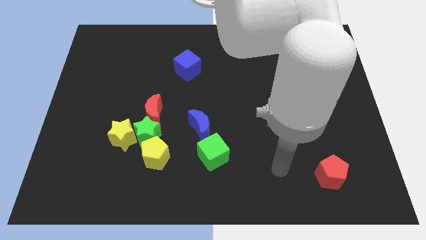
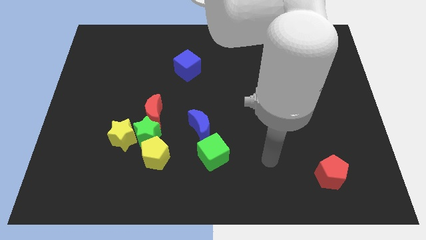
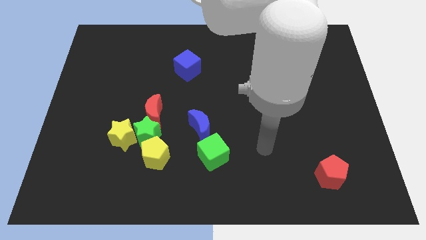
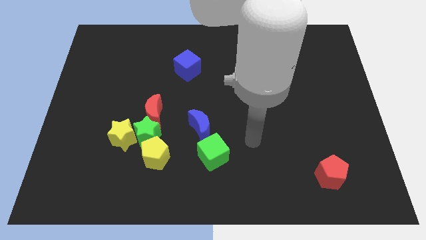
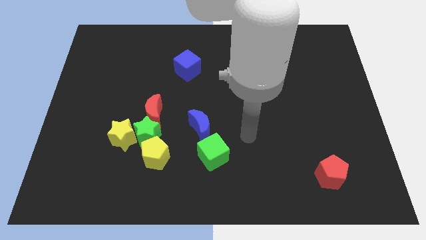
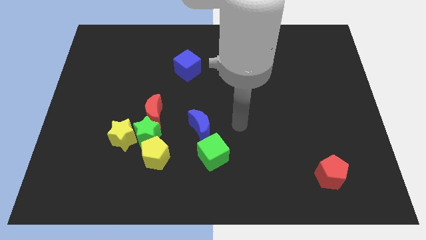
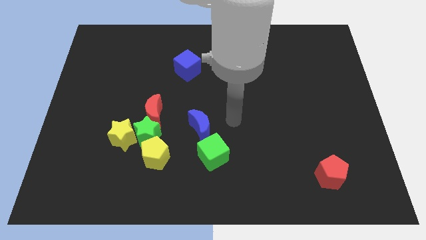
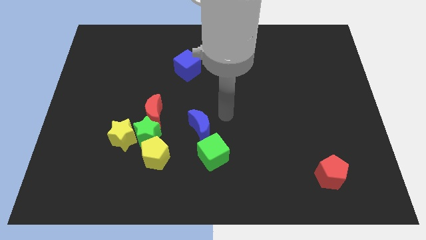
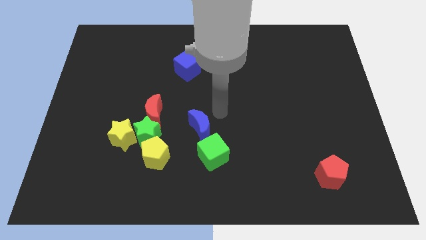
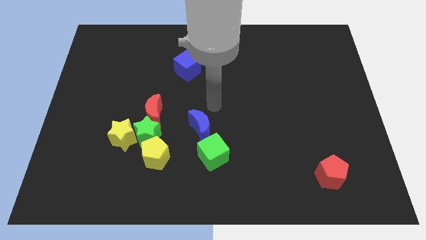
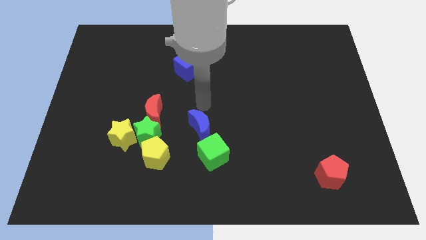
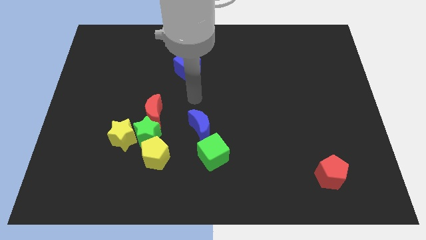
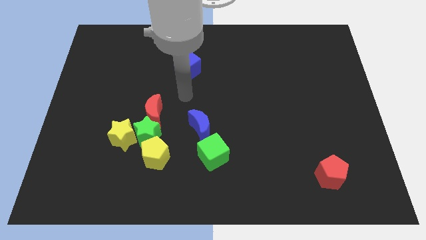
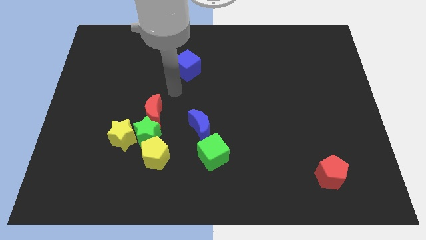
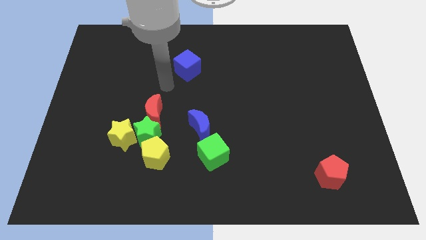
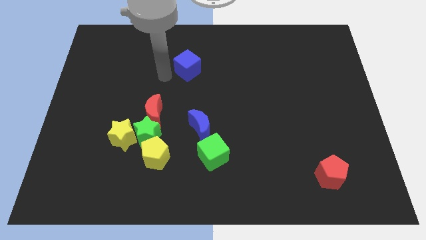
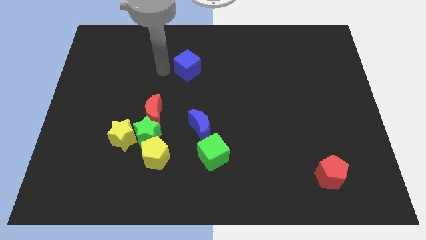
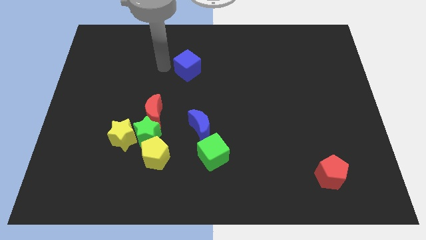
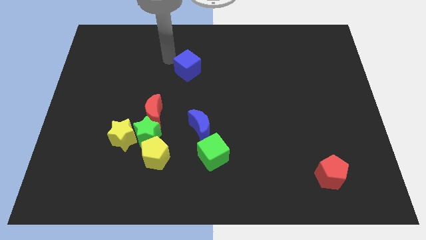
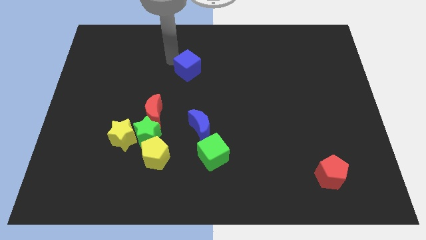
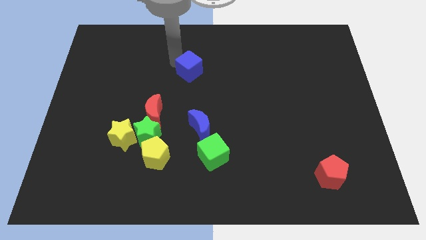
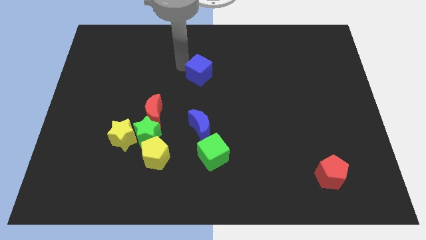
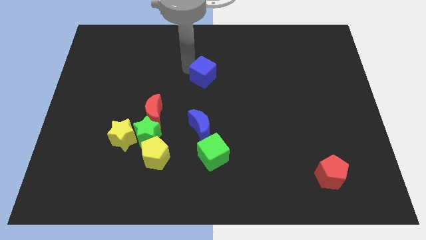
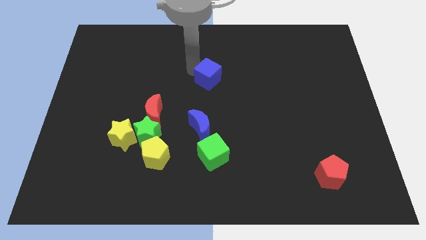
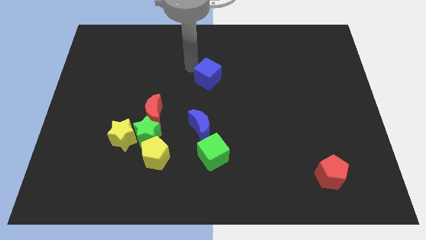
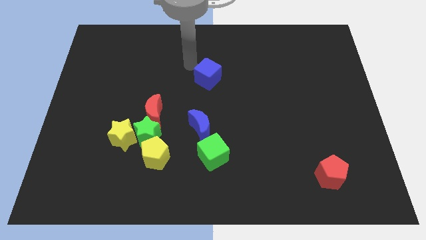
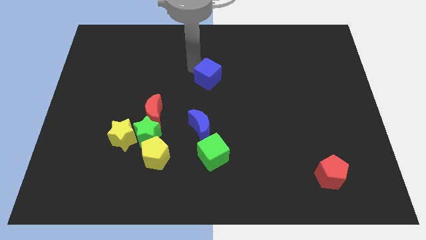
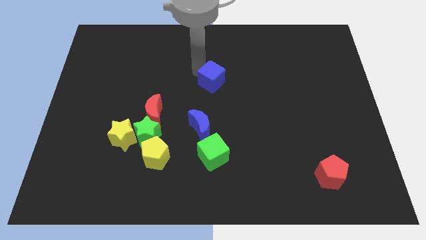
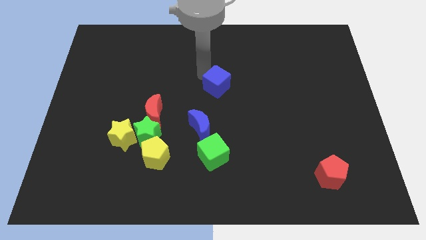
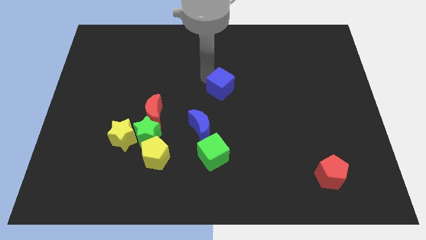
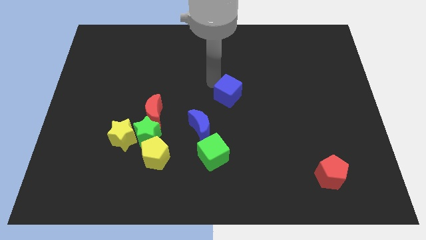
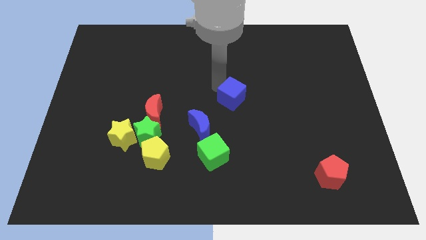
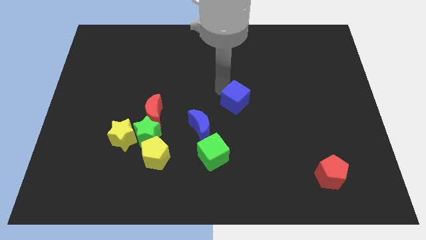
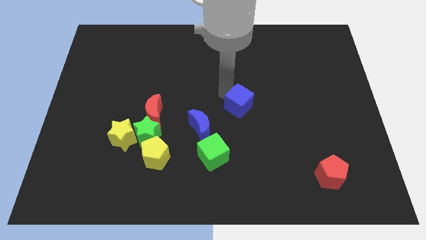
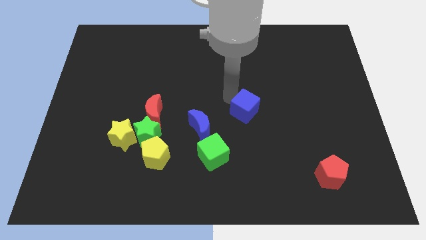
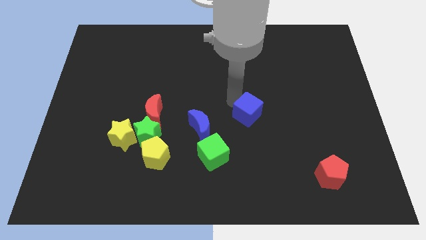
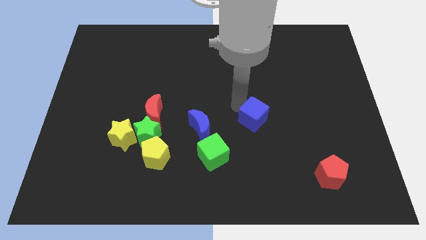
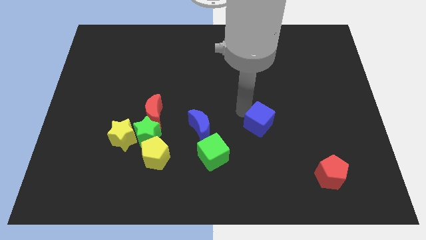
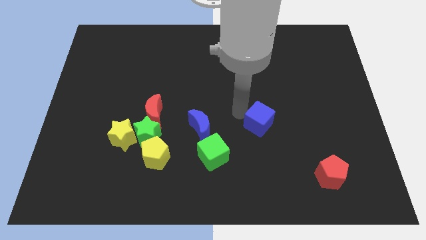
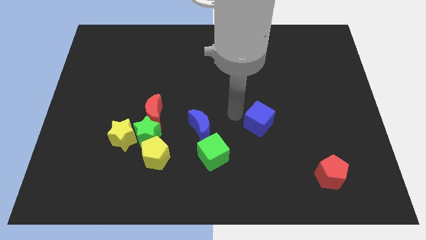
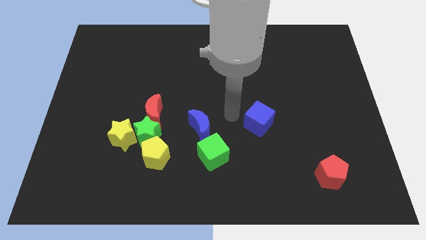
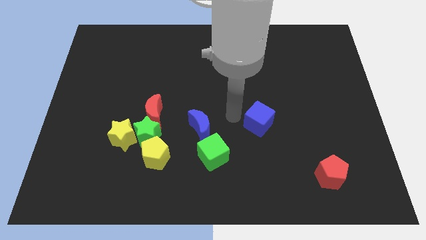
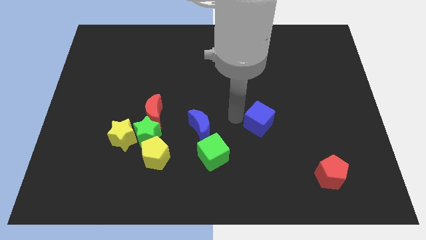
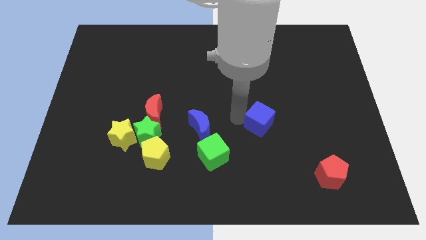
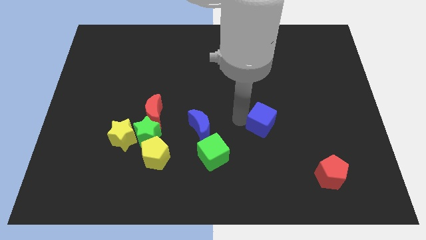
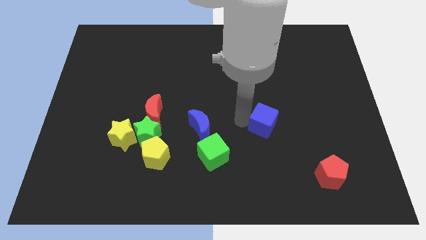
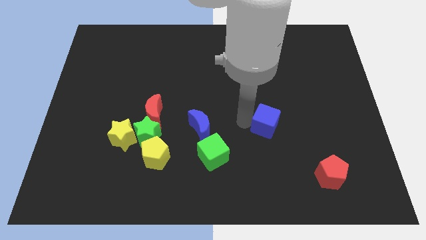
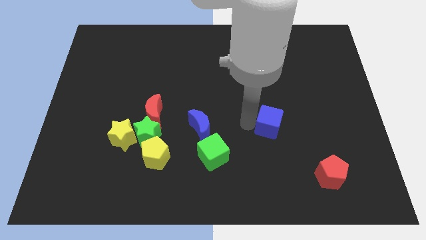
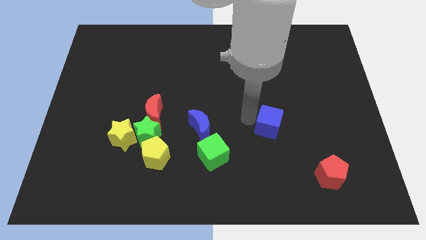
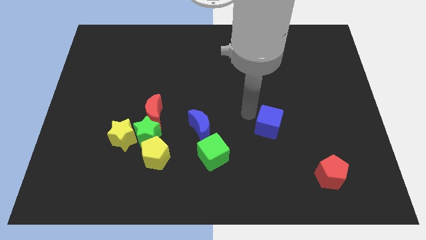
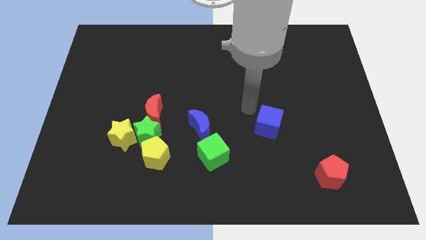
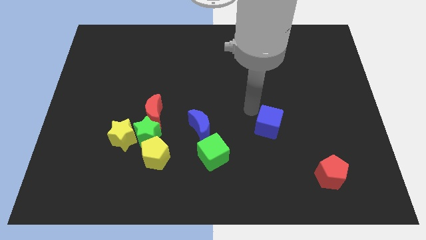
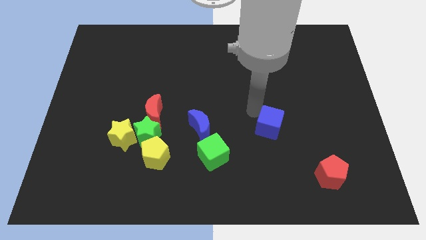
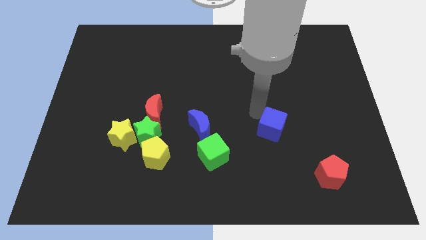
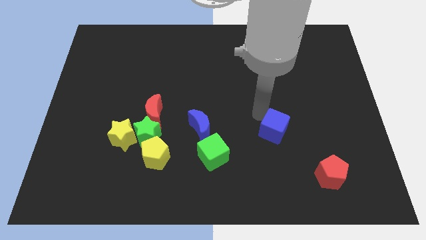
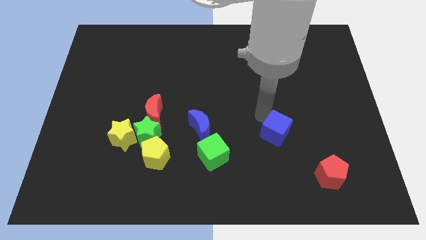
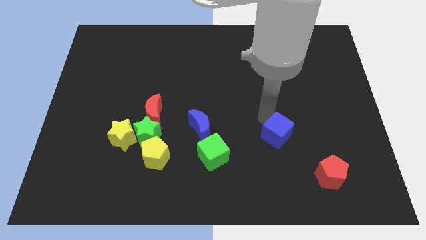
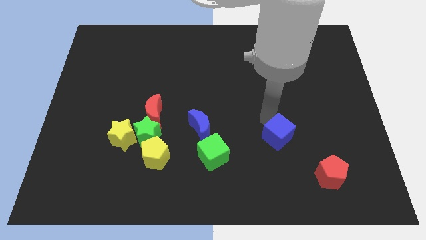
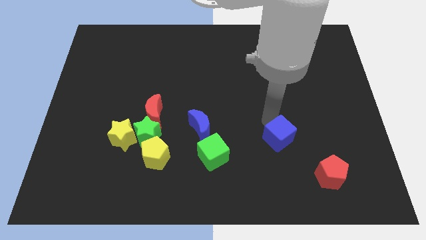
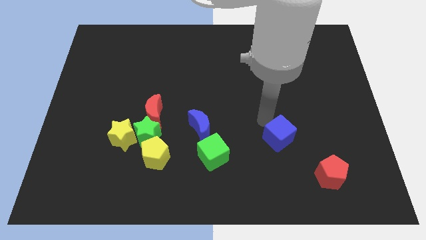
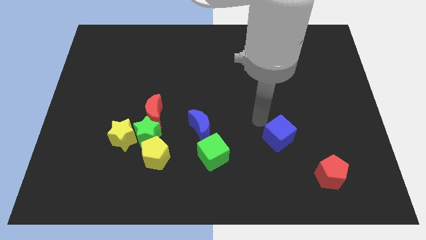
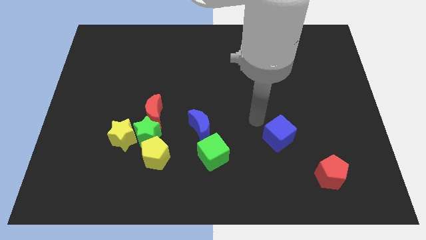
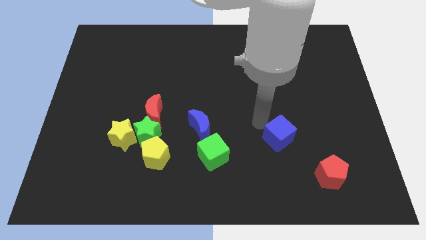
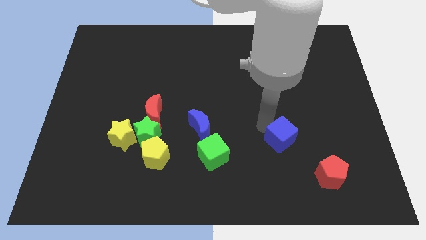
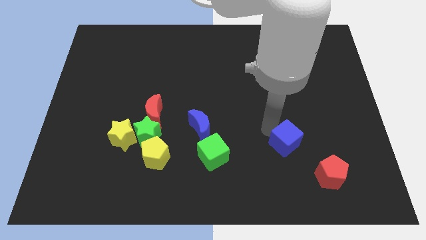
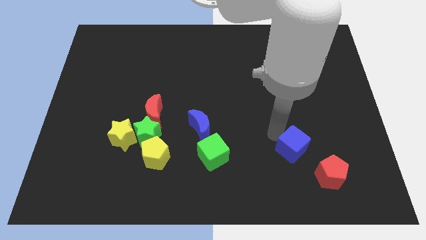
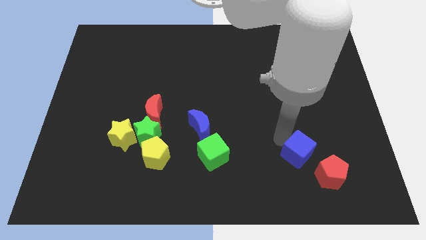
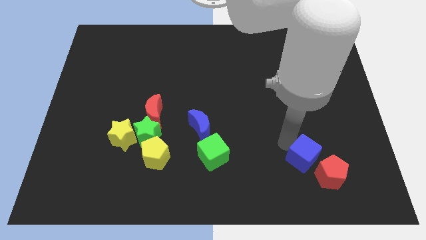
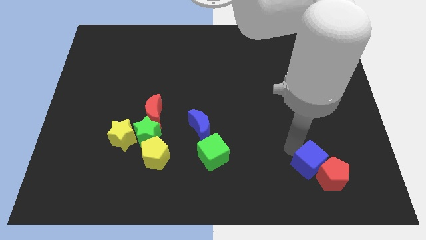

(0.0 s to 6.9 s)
move the blue cube towards the red pentagon

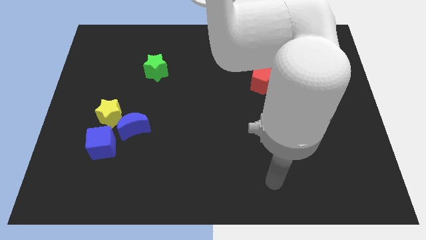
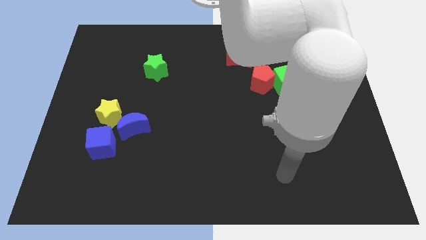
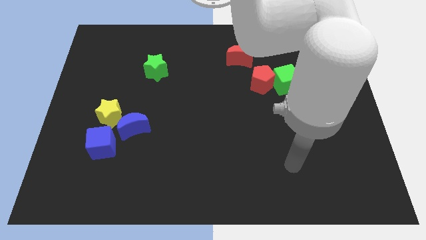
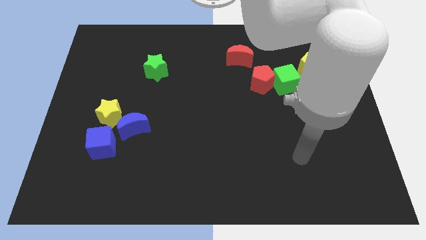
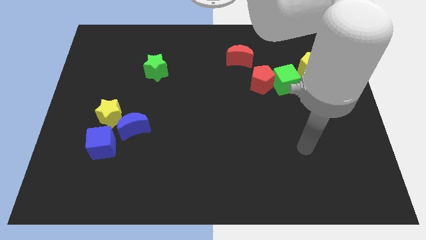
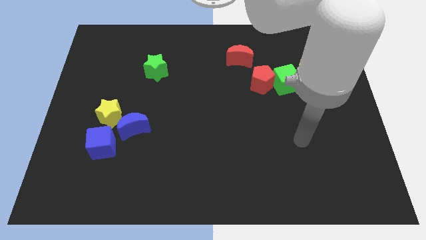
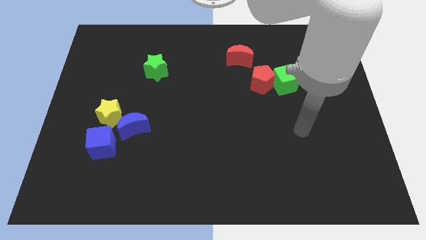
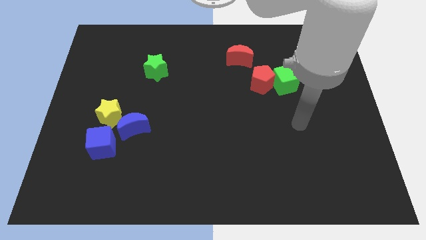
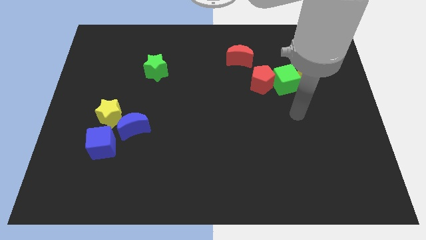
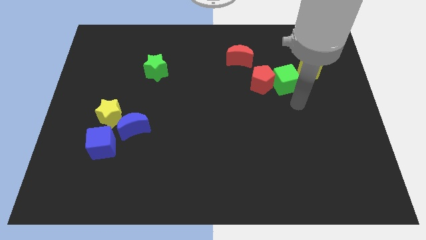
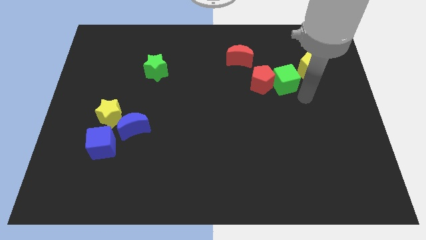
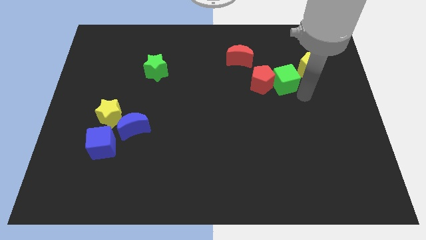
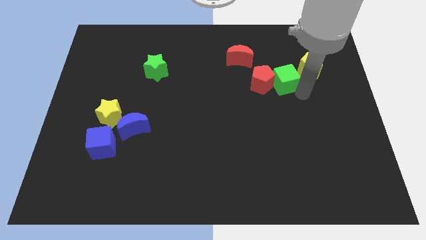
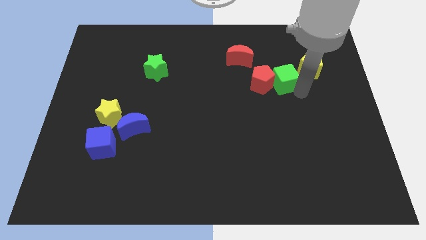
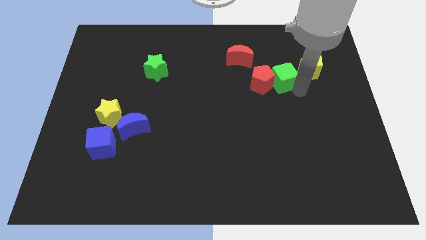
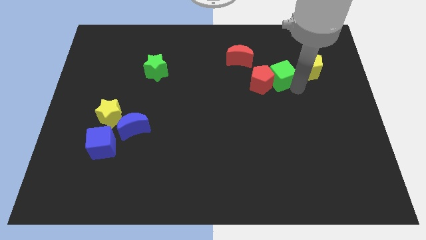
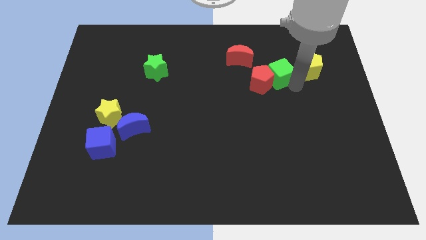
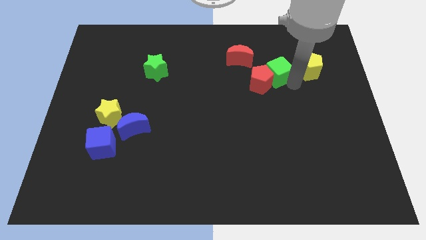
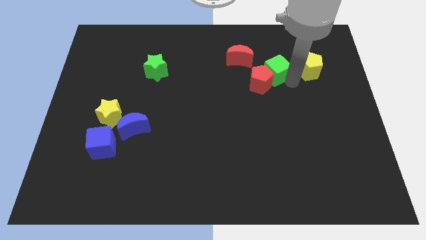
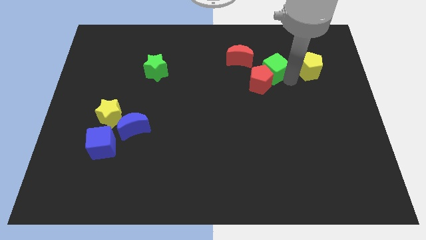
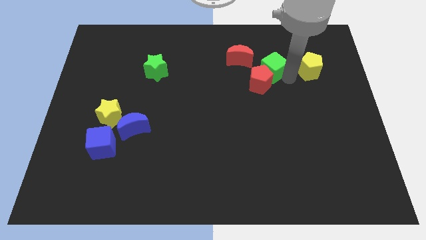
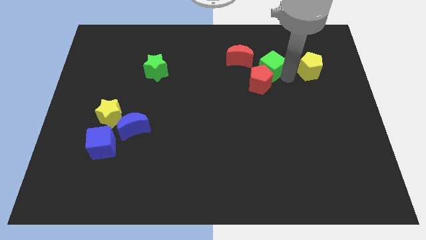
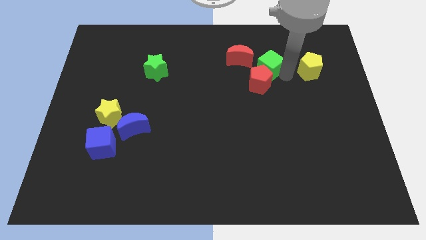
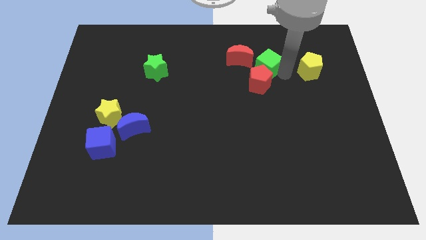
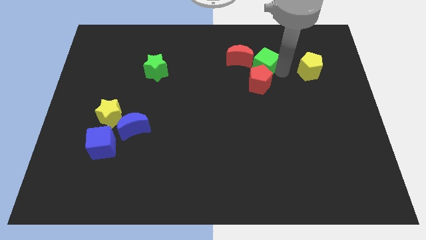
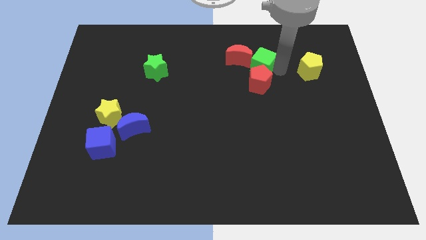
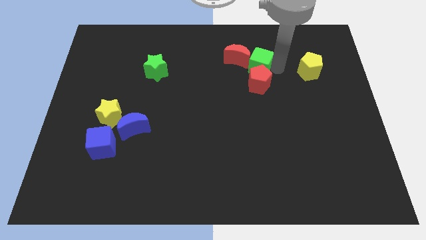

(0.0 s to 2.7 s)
put the green cube towards the red moon
